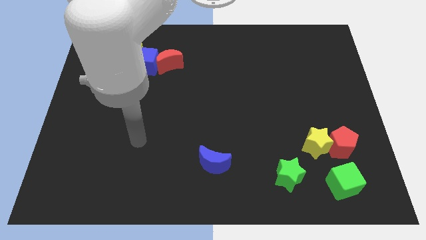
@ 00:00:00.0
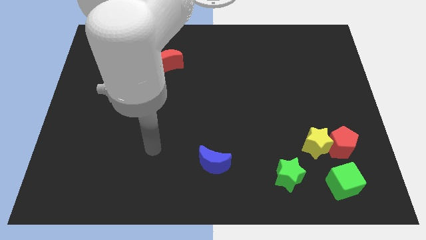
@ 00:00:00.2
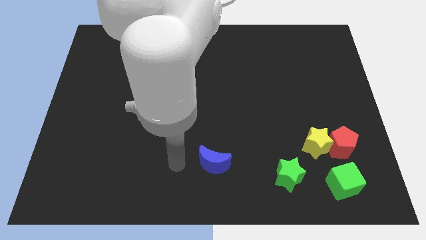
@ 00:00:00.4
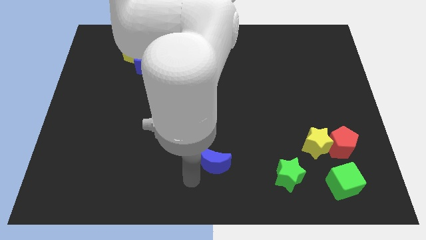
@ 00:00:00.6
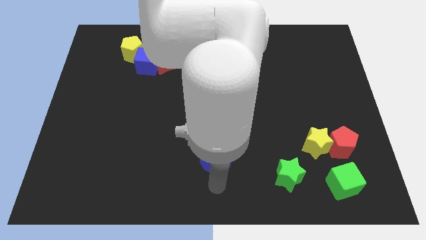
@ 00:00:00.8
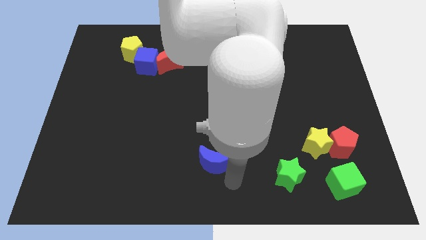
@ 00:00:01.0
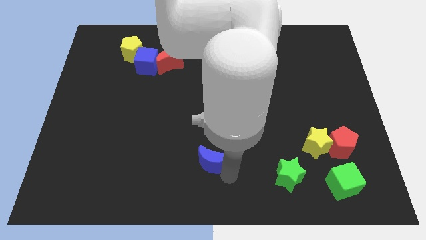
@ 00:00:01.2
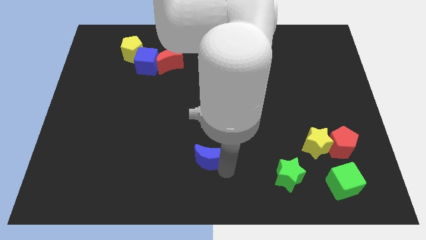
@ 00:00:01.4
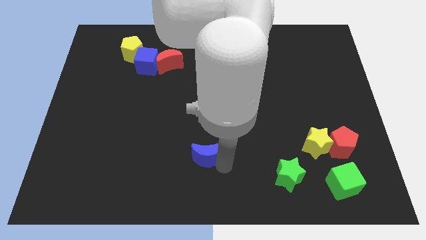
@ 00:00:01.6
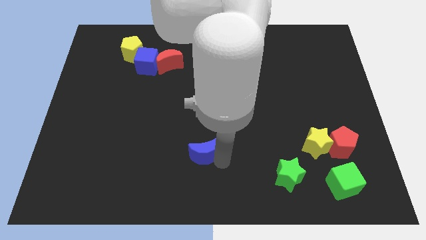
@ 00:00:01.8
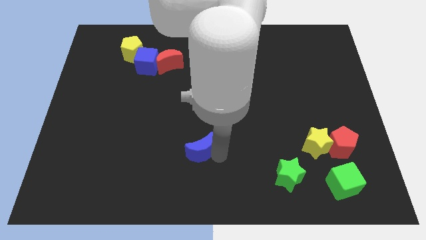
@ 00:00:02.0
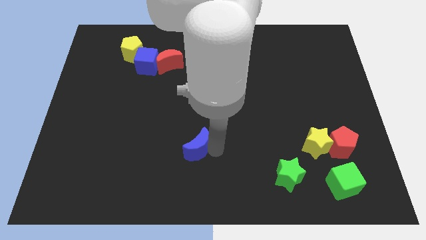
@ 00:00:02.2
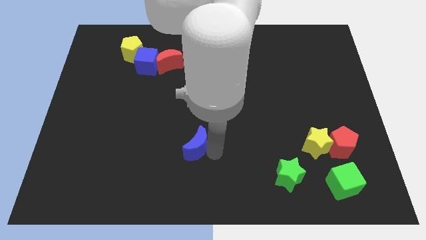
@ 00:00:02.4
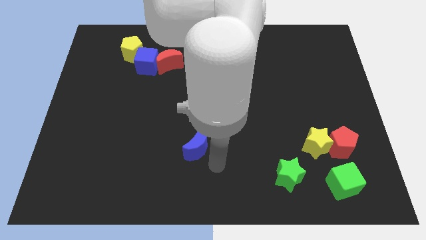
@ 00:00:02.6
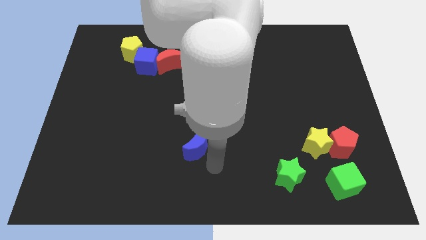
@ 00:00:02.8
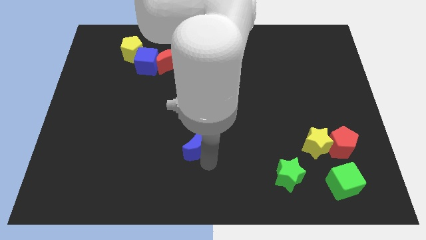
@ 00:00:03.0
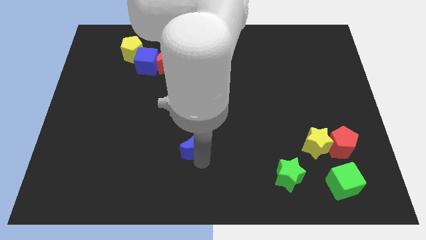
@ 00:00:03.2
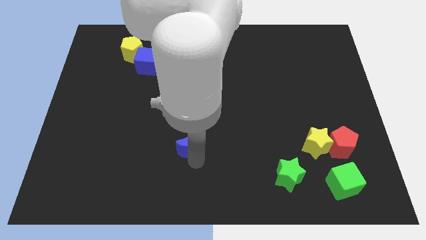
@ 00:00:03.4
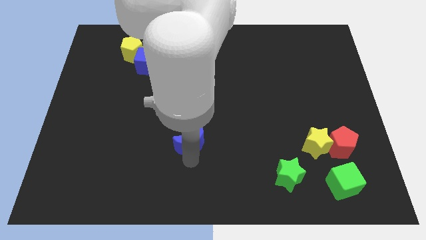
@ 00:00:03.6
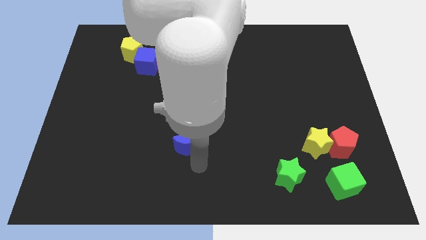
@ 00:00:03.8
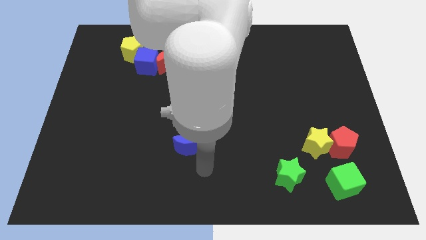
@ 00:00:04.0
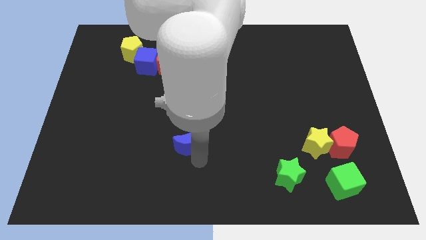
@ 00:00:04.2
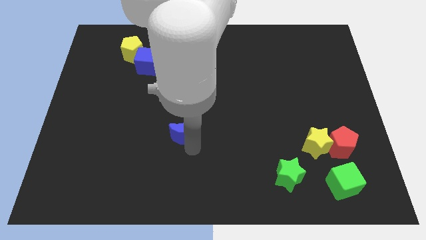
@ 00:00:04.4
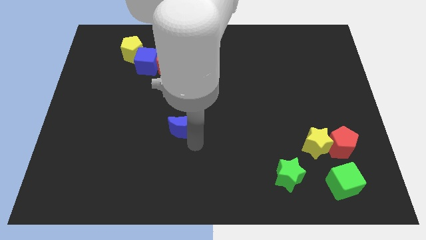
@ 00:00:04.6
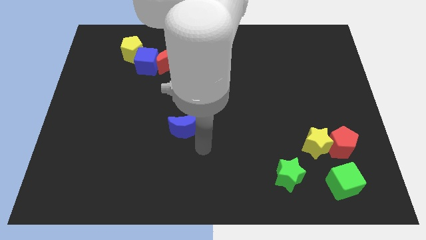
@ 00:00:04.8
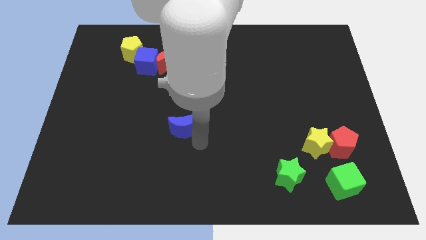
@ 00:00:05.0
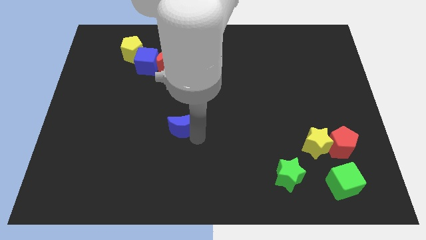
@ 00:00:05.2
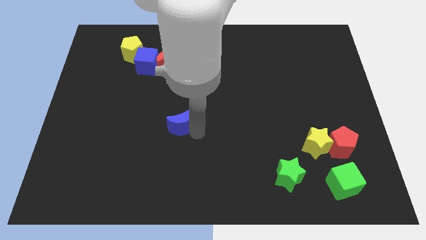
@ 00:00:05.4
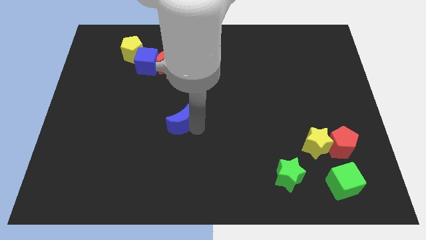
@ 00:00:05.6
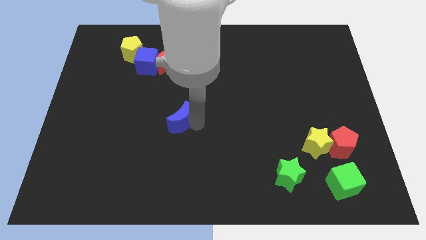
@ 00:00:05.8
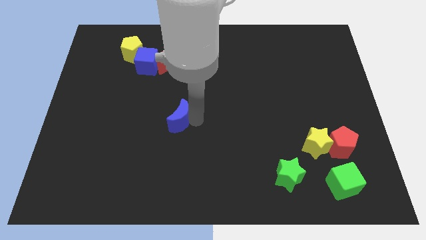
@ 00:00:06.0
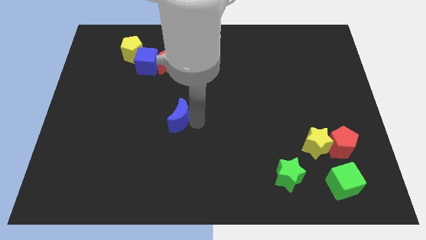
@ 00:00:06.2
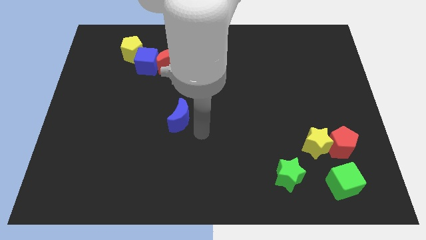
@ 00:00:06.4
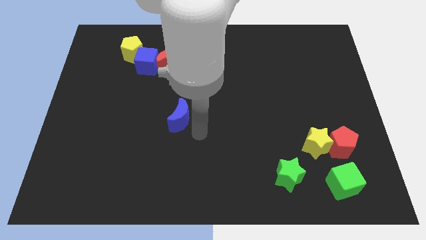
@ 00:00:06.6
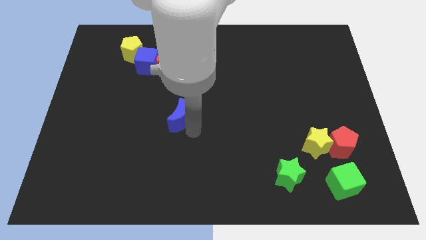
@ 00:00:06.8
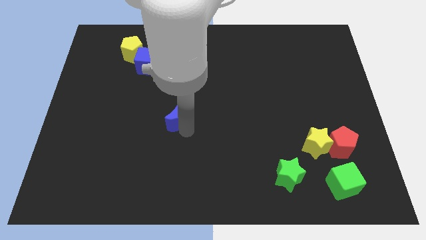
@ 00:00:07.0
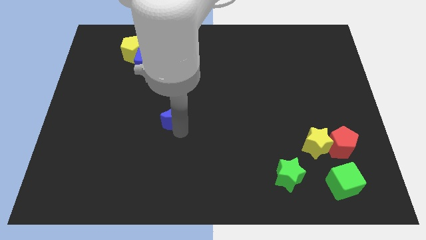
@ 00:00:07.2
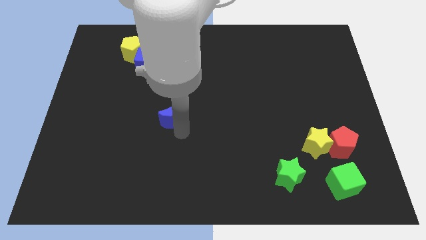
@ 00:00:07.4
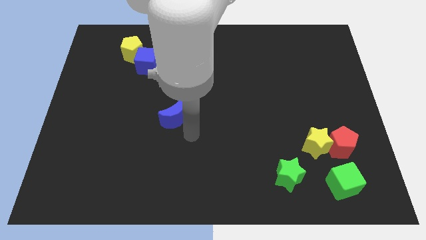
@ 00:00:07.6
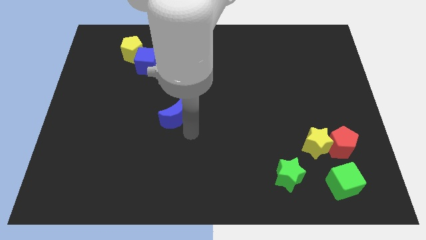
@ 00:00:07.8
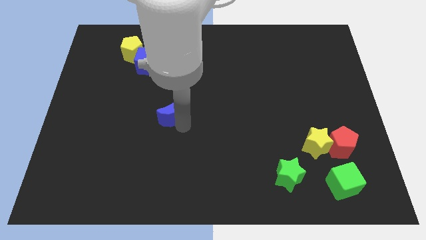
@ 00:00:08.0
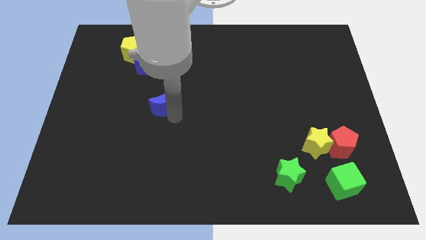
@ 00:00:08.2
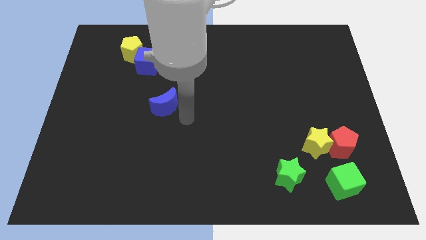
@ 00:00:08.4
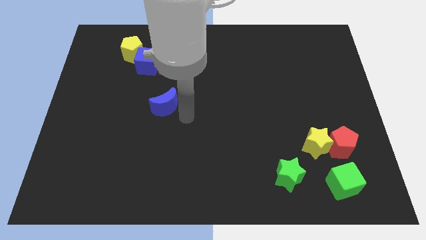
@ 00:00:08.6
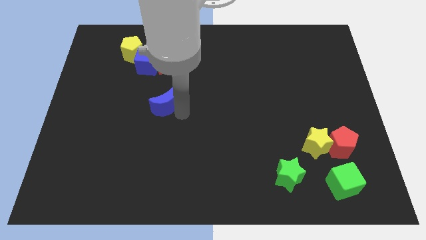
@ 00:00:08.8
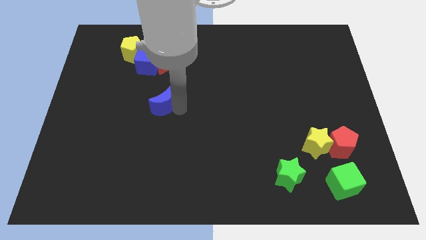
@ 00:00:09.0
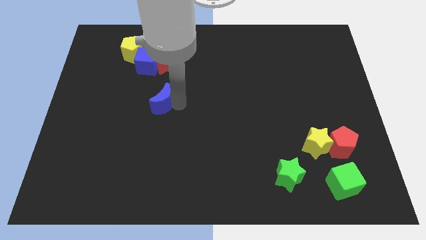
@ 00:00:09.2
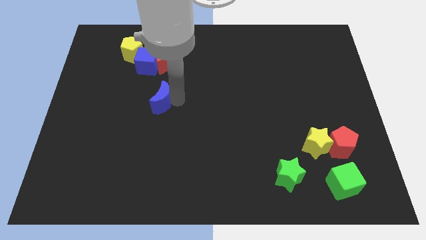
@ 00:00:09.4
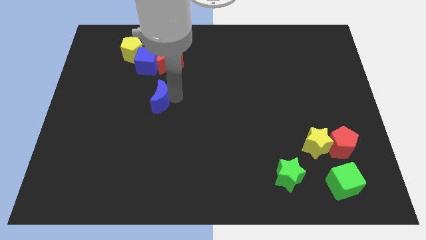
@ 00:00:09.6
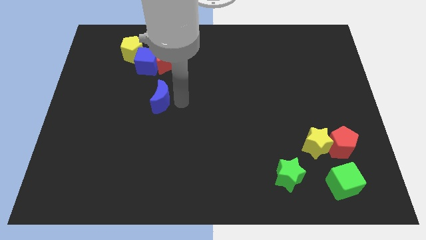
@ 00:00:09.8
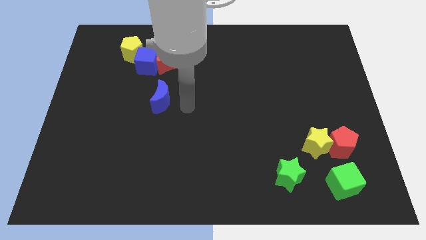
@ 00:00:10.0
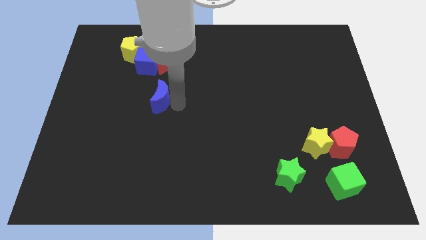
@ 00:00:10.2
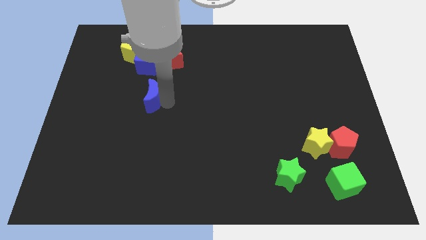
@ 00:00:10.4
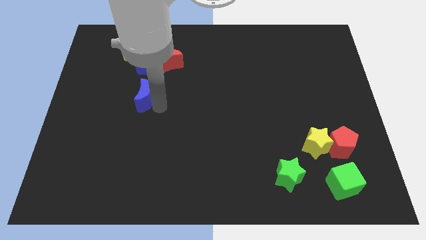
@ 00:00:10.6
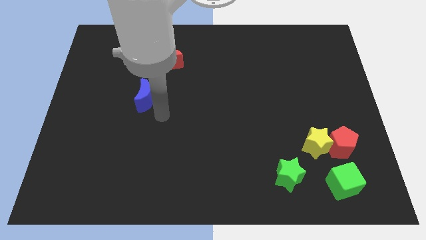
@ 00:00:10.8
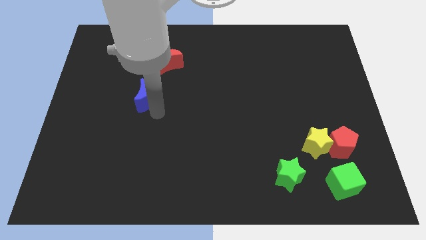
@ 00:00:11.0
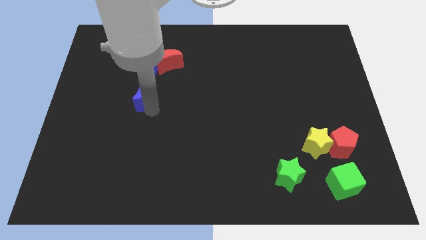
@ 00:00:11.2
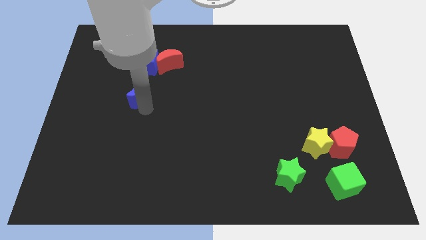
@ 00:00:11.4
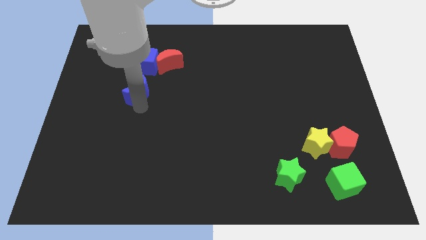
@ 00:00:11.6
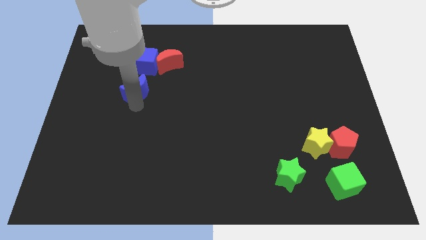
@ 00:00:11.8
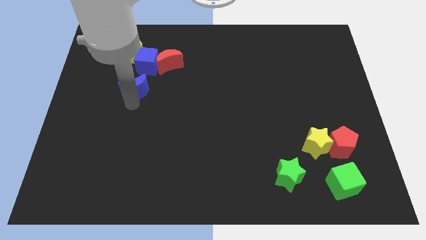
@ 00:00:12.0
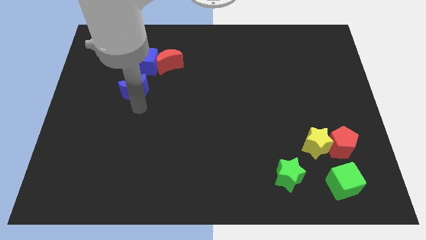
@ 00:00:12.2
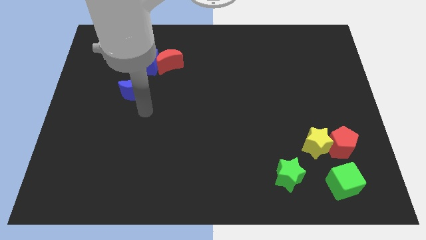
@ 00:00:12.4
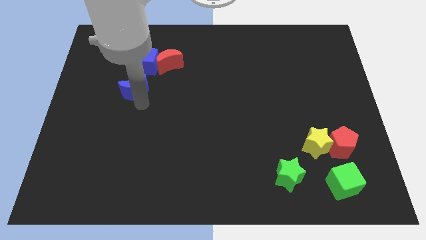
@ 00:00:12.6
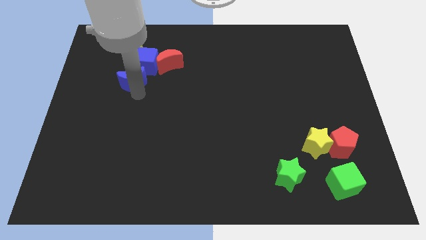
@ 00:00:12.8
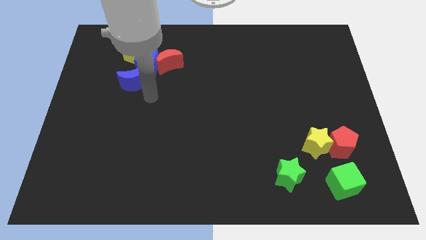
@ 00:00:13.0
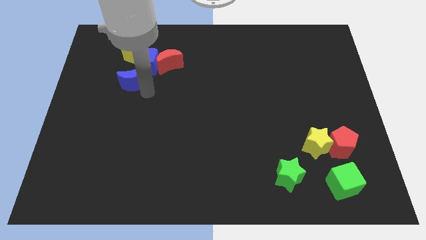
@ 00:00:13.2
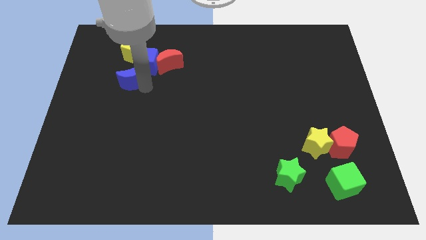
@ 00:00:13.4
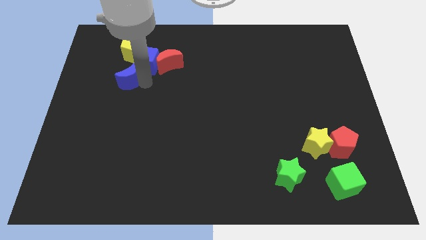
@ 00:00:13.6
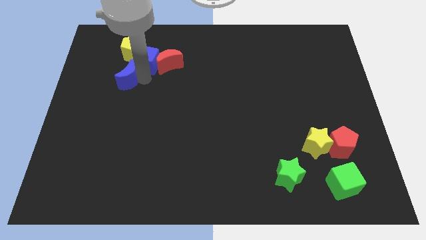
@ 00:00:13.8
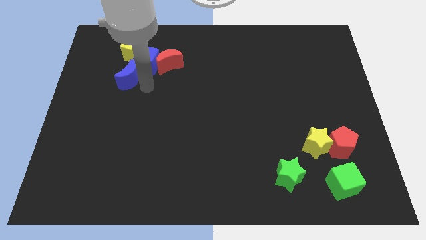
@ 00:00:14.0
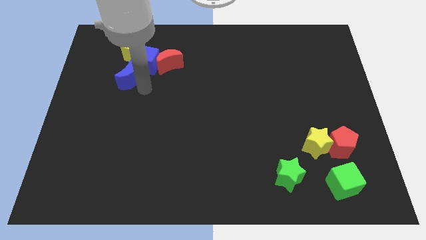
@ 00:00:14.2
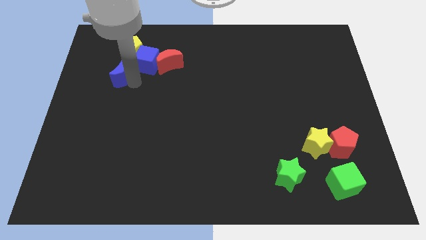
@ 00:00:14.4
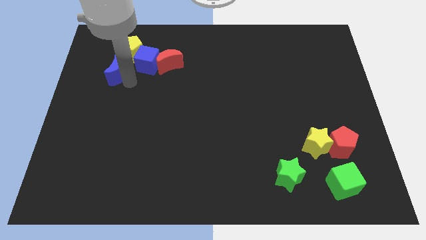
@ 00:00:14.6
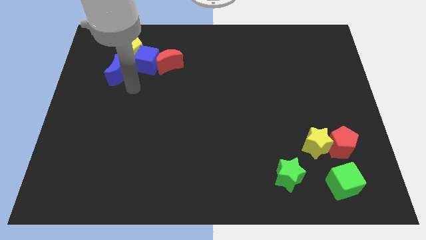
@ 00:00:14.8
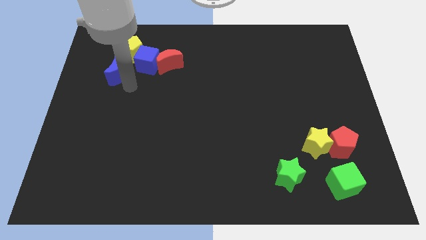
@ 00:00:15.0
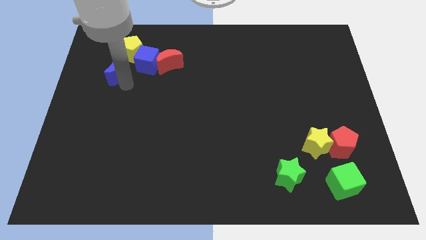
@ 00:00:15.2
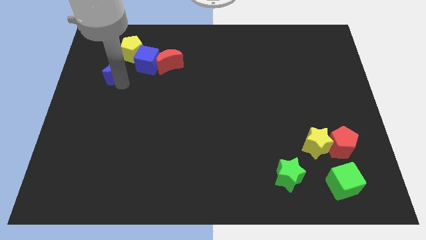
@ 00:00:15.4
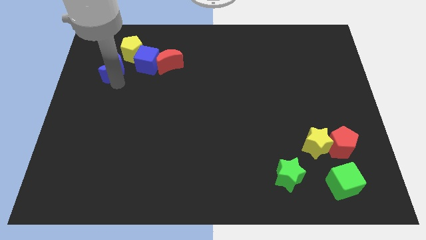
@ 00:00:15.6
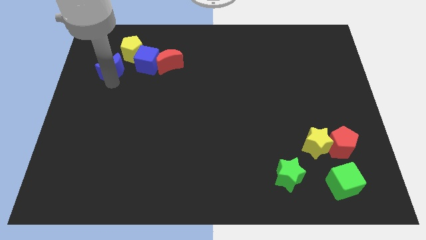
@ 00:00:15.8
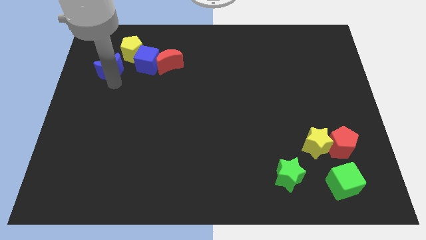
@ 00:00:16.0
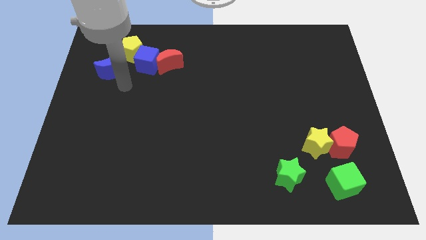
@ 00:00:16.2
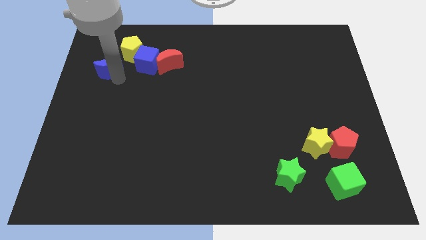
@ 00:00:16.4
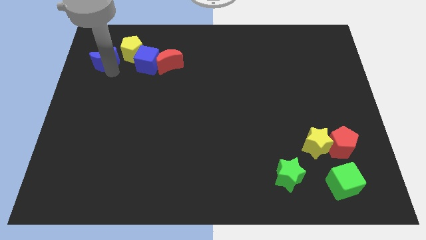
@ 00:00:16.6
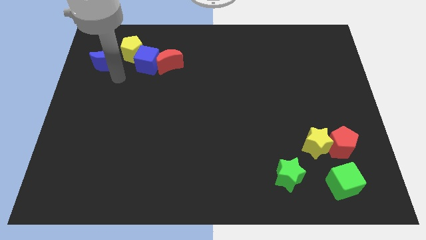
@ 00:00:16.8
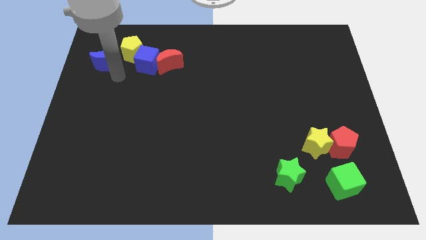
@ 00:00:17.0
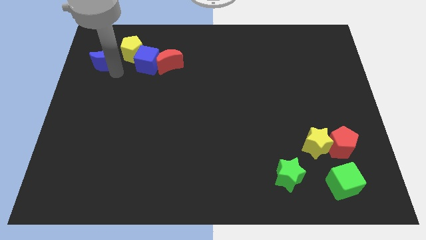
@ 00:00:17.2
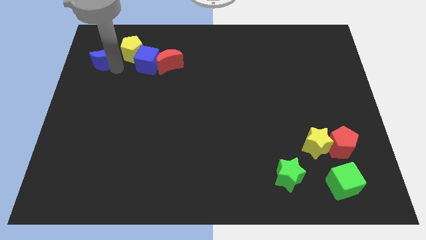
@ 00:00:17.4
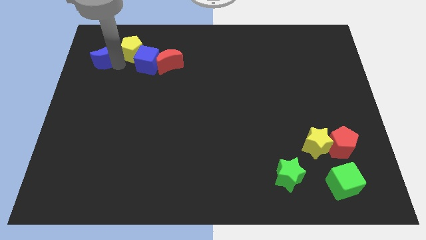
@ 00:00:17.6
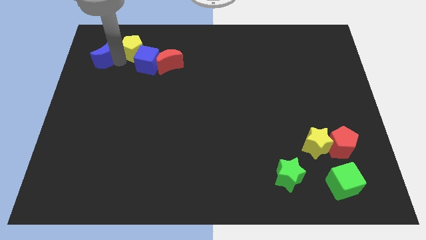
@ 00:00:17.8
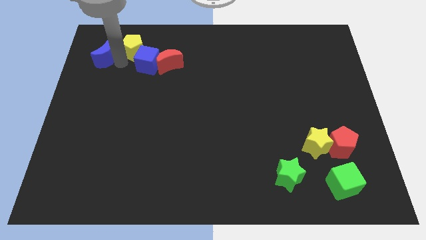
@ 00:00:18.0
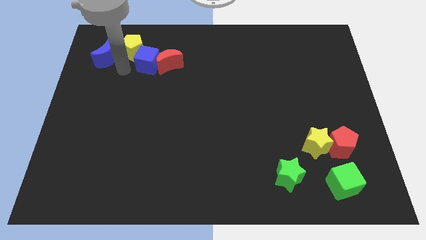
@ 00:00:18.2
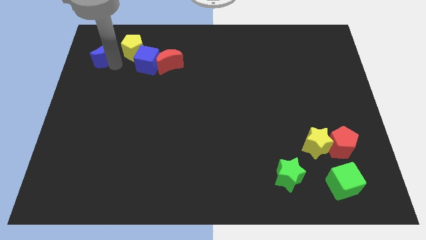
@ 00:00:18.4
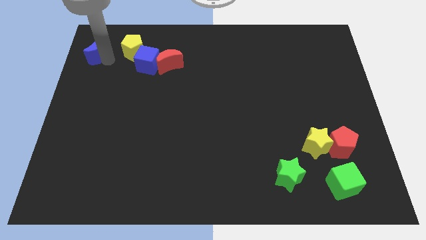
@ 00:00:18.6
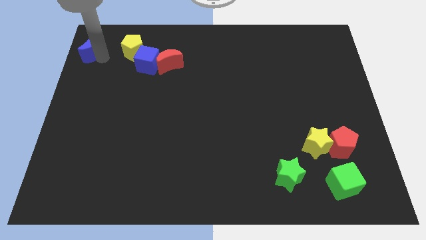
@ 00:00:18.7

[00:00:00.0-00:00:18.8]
put the blue moon to the top left corner
